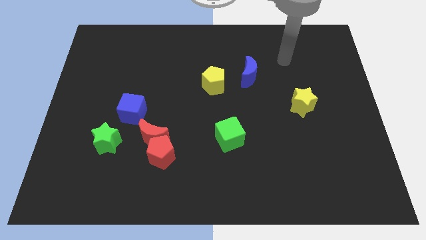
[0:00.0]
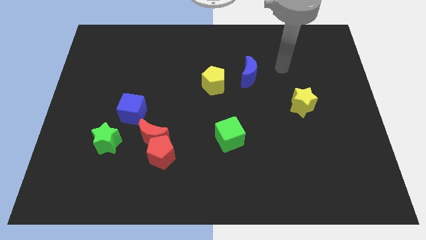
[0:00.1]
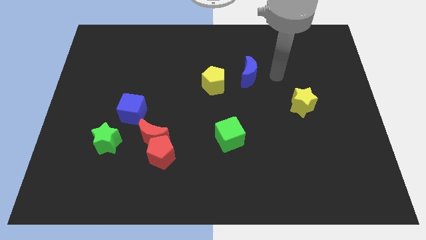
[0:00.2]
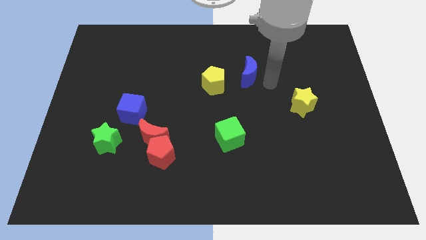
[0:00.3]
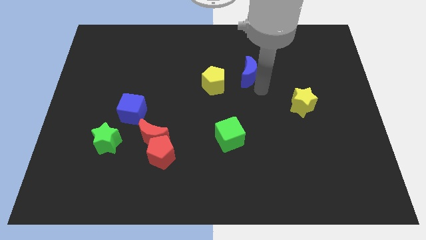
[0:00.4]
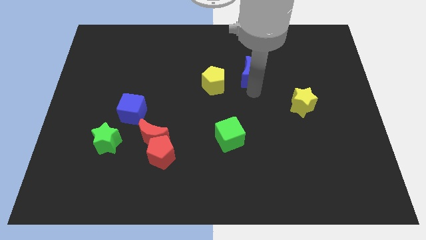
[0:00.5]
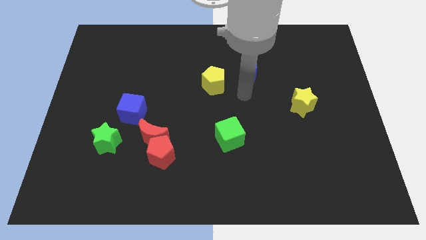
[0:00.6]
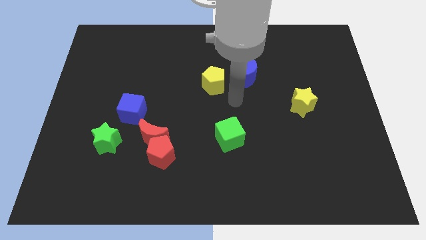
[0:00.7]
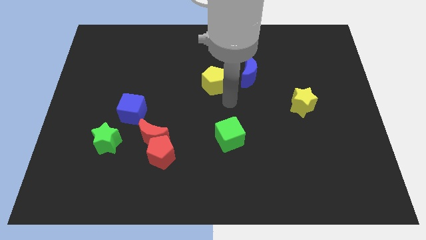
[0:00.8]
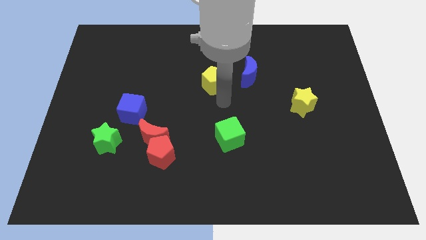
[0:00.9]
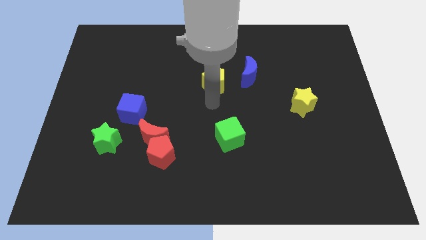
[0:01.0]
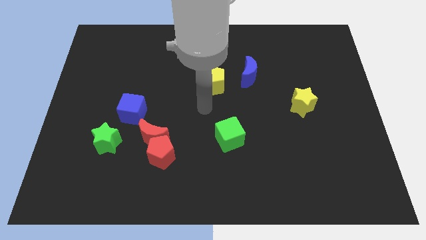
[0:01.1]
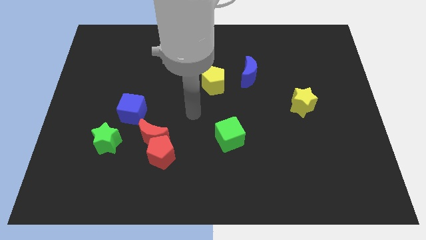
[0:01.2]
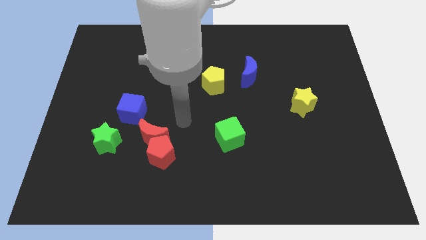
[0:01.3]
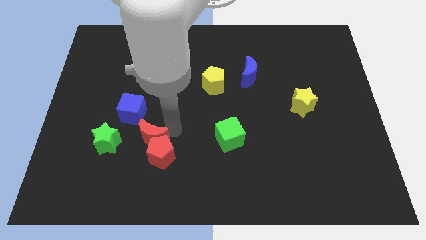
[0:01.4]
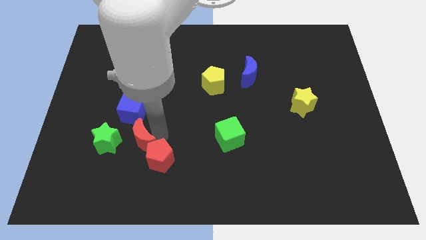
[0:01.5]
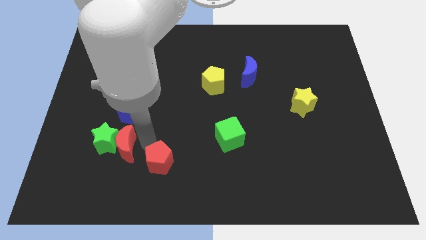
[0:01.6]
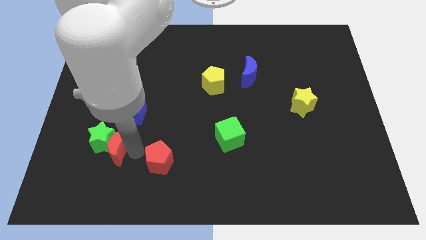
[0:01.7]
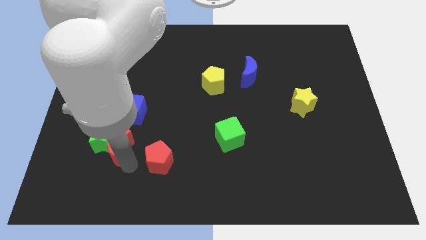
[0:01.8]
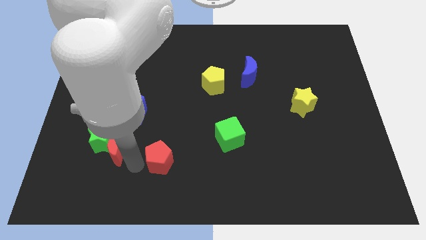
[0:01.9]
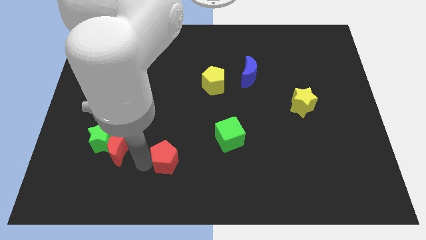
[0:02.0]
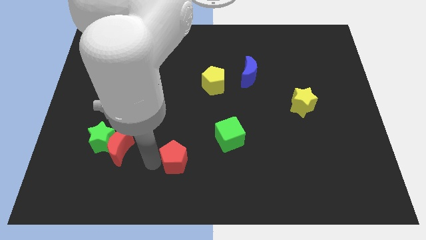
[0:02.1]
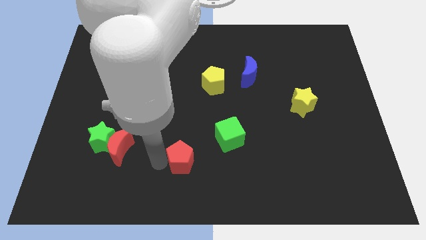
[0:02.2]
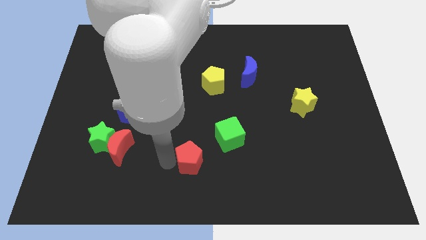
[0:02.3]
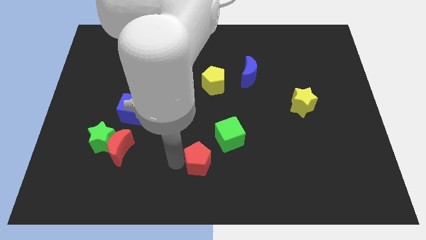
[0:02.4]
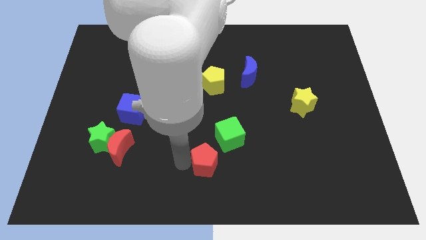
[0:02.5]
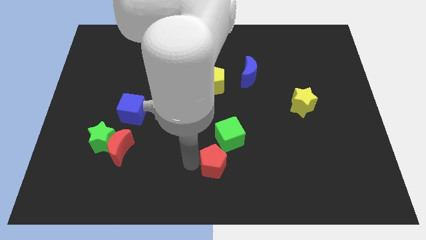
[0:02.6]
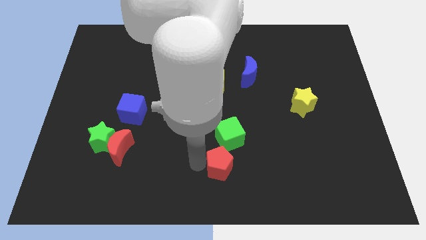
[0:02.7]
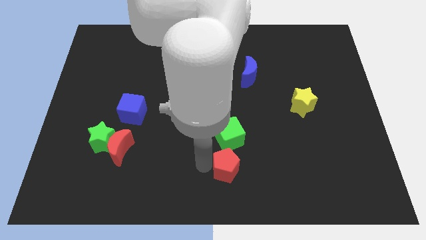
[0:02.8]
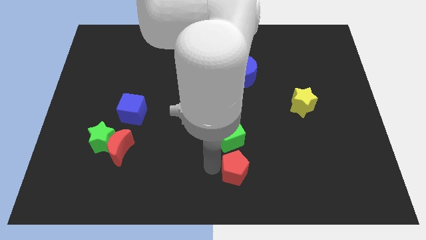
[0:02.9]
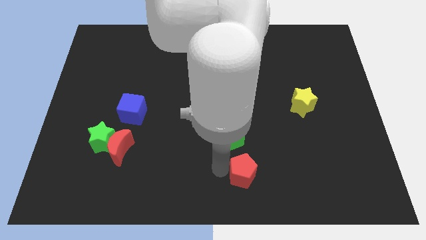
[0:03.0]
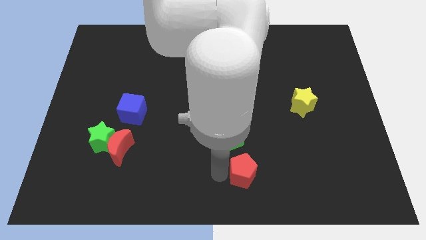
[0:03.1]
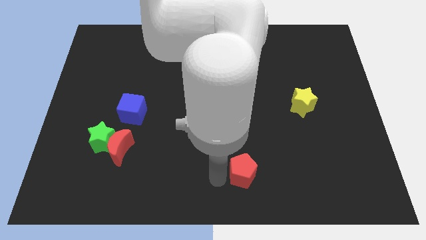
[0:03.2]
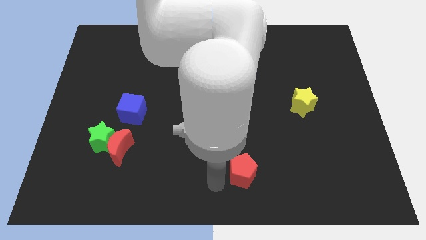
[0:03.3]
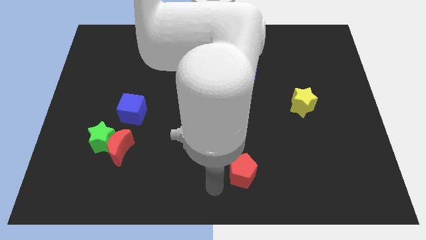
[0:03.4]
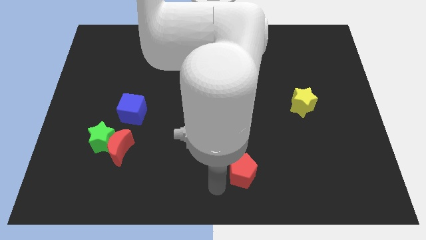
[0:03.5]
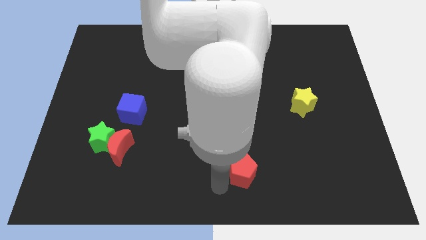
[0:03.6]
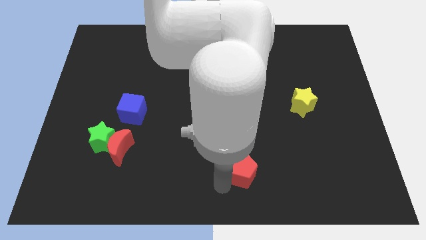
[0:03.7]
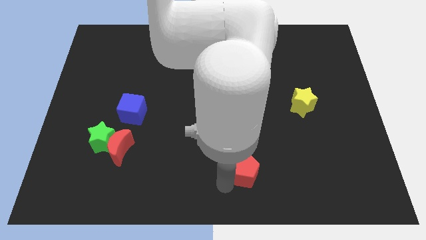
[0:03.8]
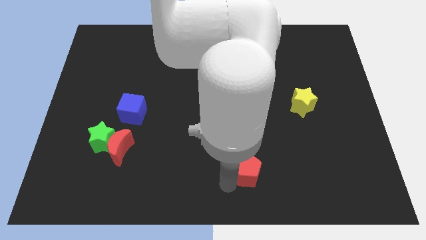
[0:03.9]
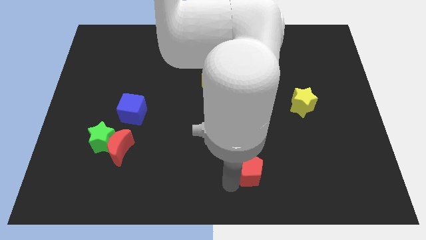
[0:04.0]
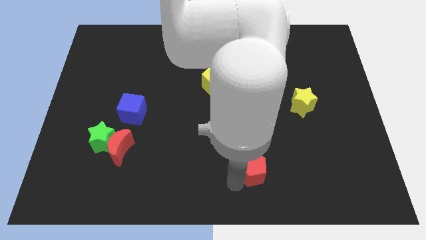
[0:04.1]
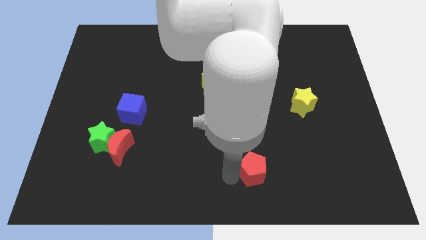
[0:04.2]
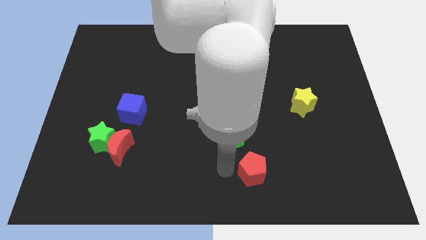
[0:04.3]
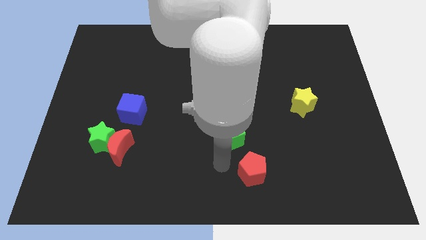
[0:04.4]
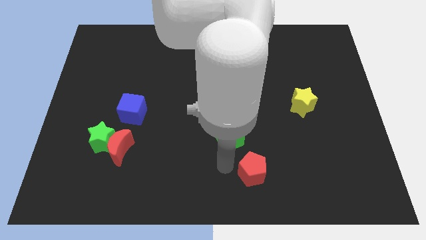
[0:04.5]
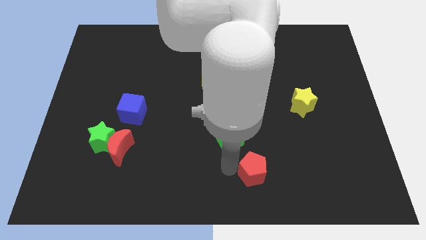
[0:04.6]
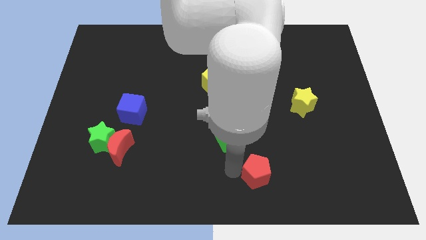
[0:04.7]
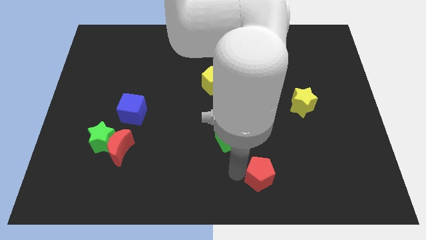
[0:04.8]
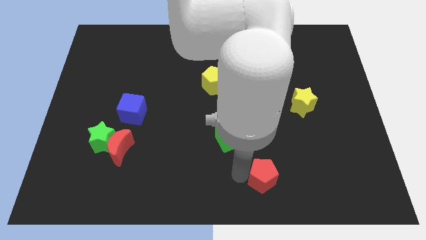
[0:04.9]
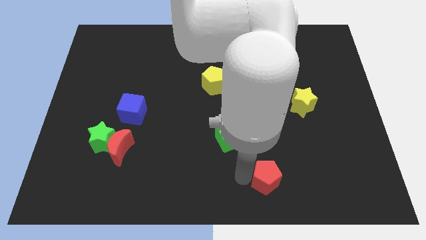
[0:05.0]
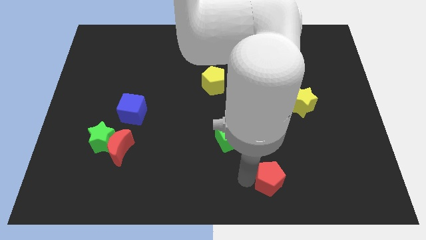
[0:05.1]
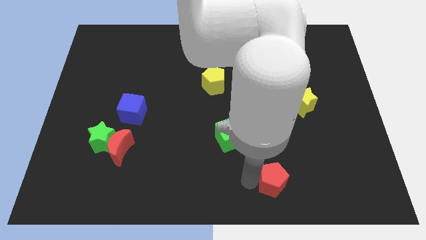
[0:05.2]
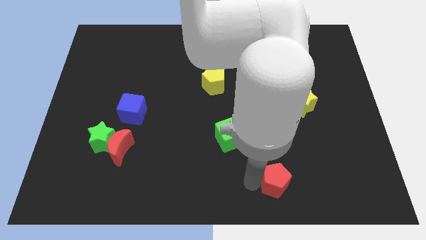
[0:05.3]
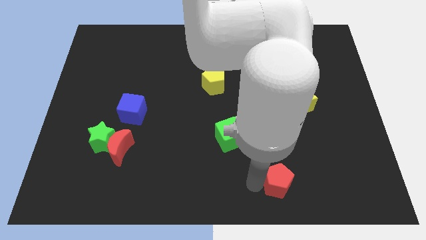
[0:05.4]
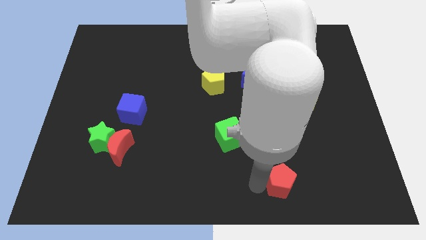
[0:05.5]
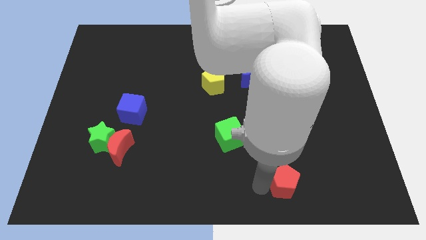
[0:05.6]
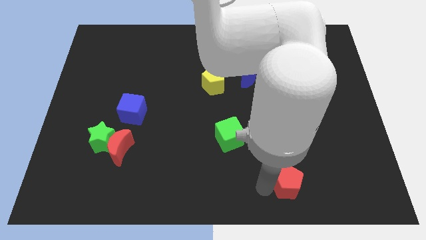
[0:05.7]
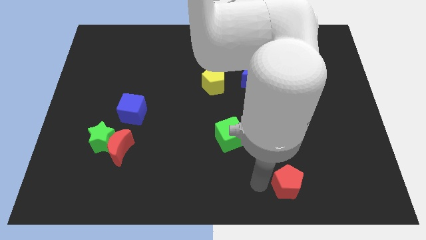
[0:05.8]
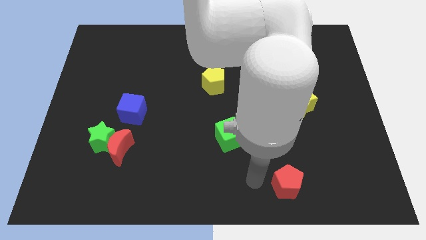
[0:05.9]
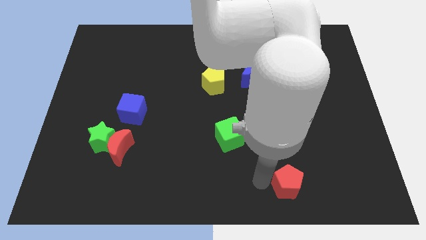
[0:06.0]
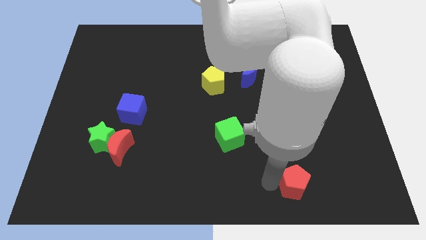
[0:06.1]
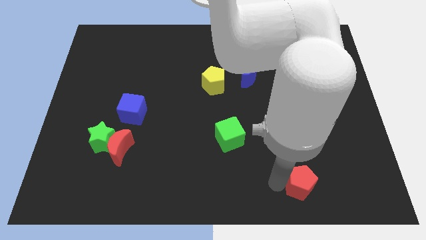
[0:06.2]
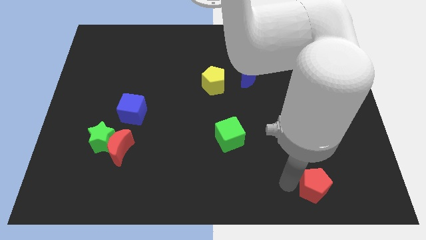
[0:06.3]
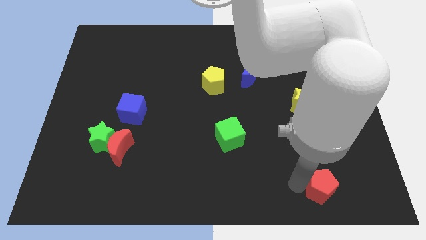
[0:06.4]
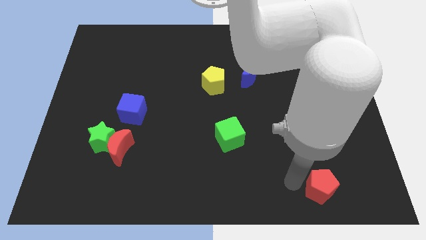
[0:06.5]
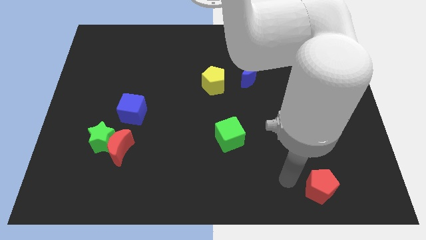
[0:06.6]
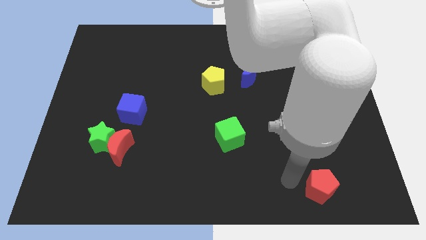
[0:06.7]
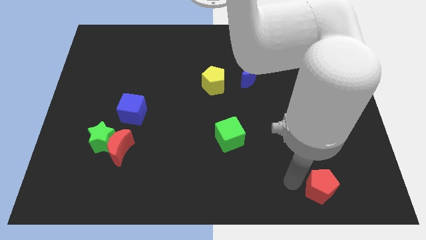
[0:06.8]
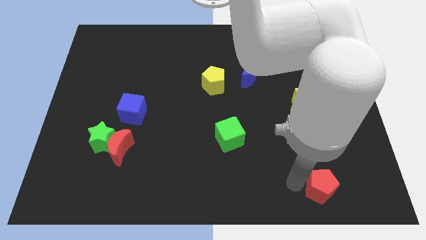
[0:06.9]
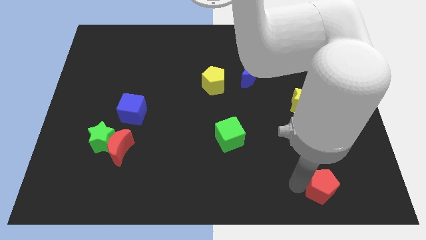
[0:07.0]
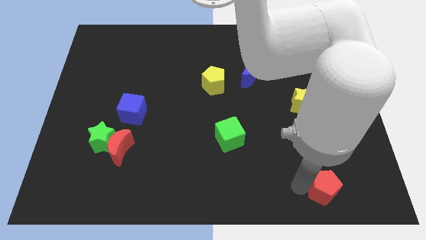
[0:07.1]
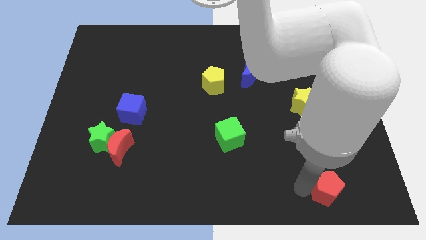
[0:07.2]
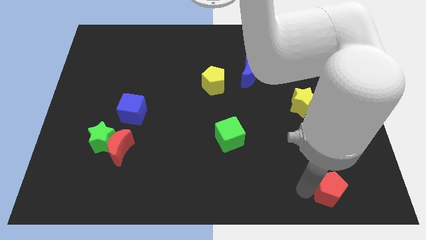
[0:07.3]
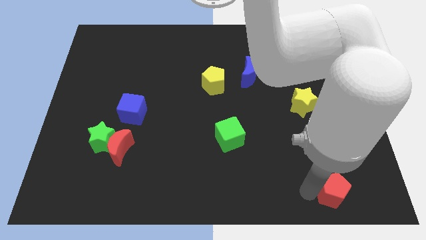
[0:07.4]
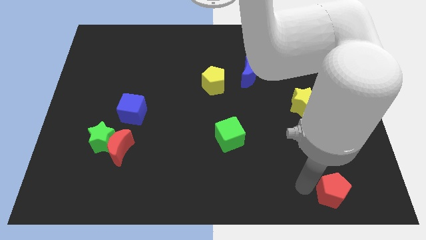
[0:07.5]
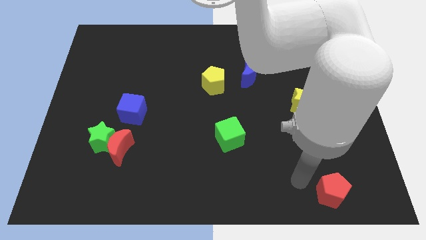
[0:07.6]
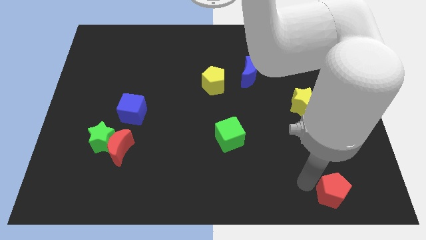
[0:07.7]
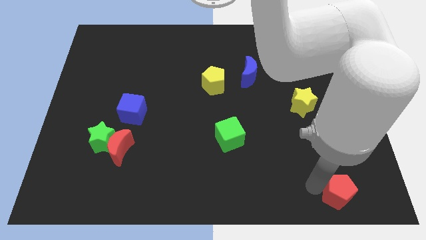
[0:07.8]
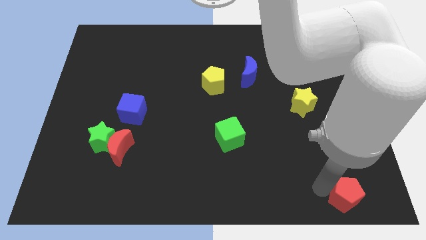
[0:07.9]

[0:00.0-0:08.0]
put the red pentagon to the bottom right corner
